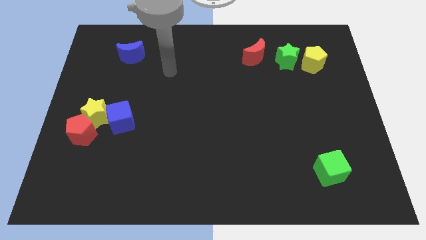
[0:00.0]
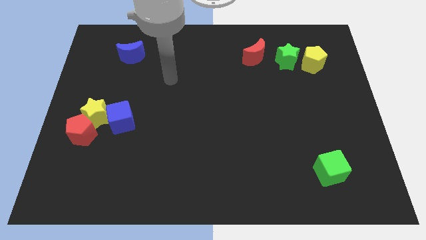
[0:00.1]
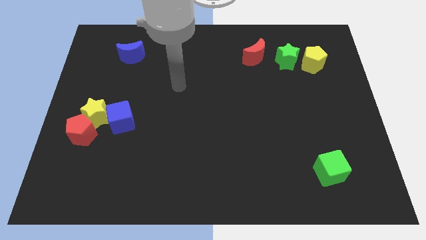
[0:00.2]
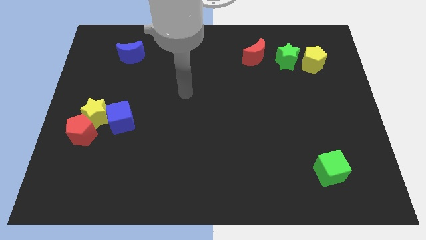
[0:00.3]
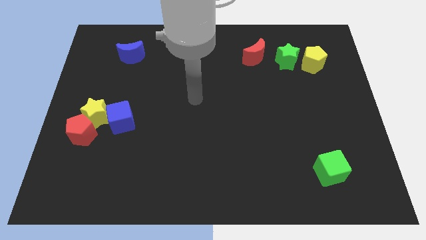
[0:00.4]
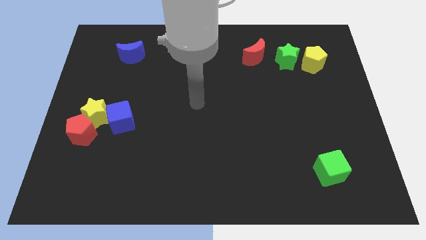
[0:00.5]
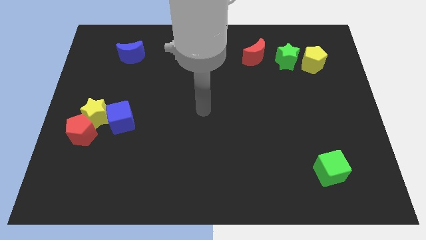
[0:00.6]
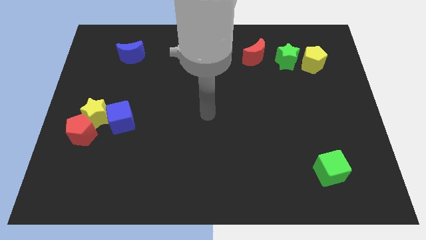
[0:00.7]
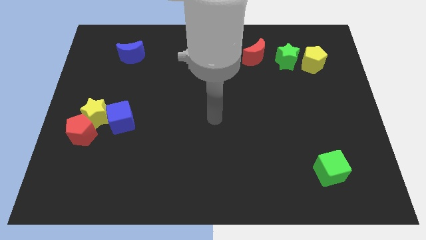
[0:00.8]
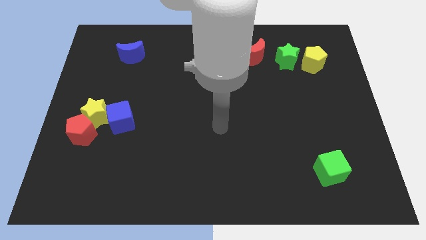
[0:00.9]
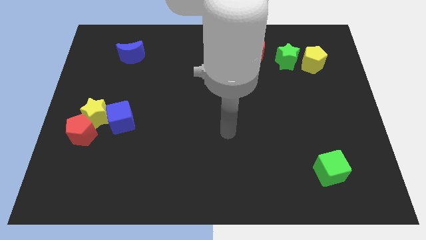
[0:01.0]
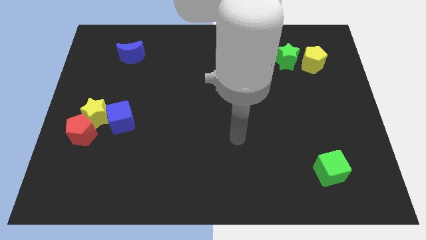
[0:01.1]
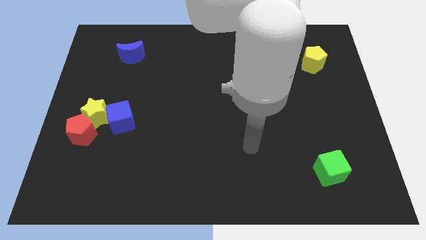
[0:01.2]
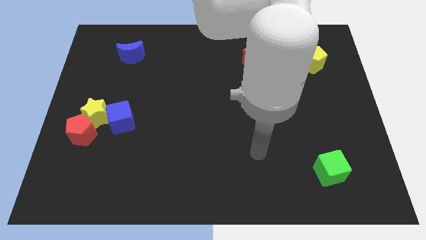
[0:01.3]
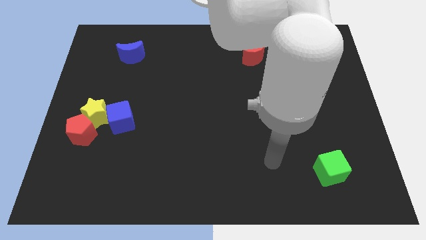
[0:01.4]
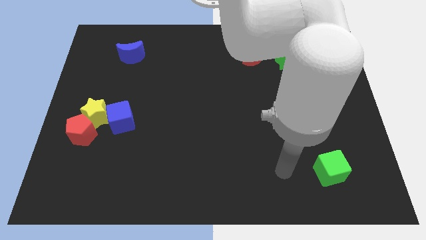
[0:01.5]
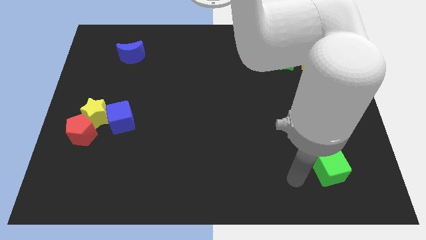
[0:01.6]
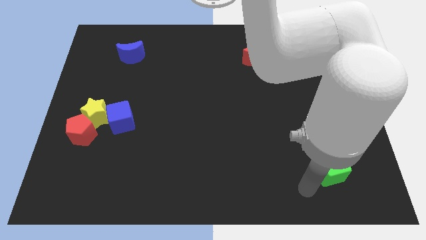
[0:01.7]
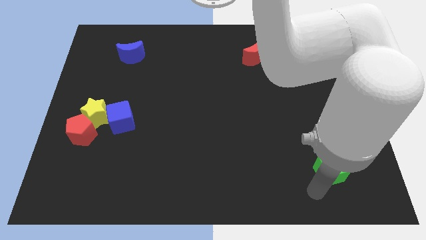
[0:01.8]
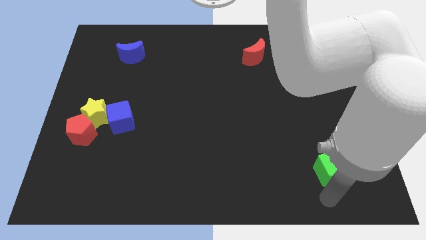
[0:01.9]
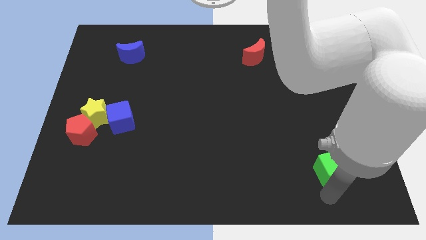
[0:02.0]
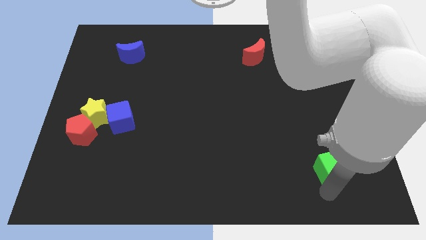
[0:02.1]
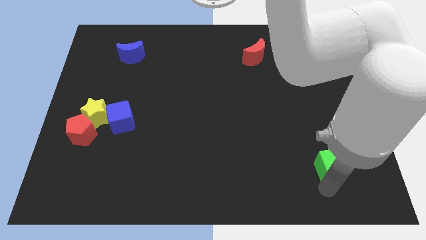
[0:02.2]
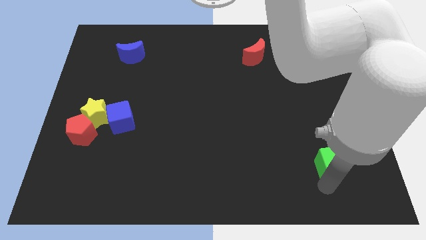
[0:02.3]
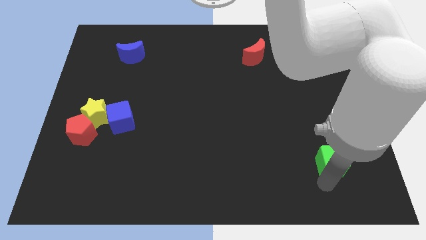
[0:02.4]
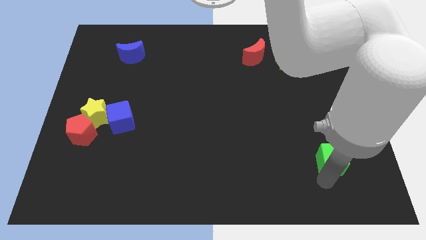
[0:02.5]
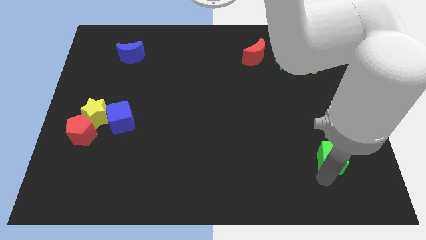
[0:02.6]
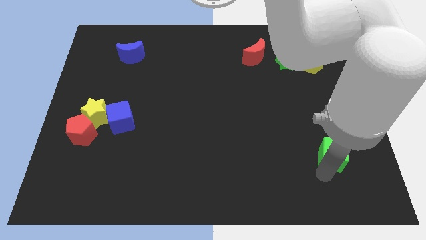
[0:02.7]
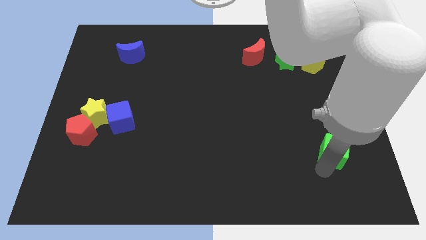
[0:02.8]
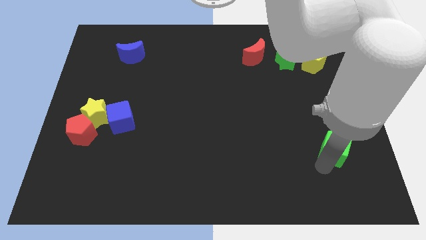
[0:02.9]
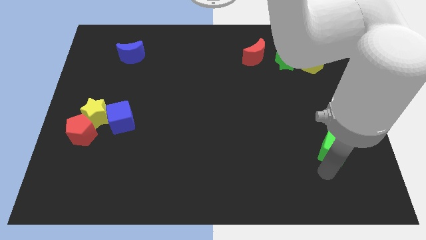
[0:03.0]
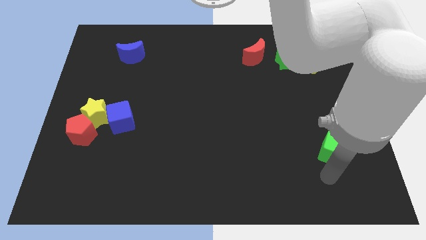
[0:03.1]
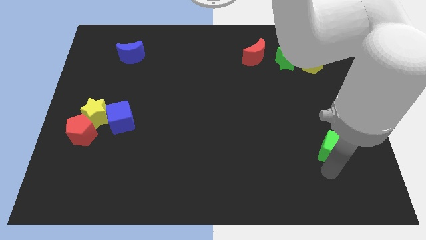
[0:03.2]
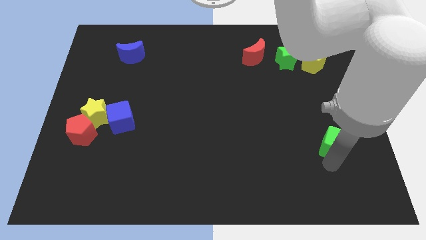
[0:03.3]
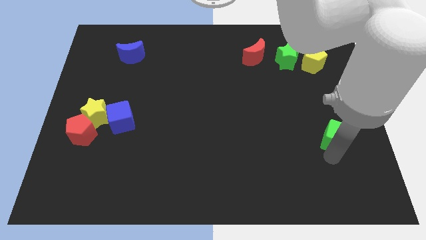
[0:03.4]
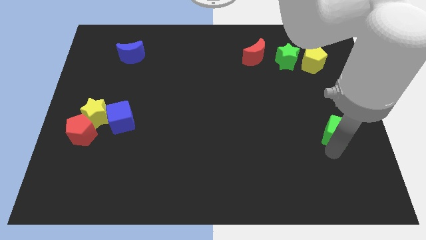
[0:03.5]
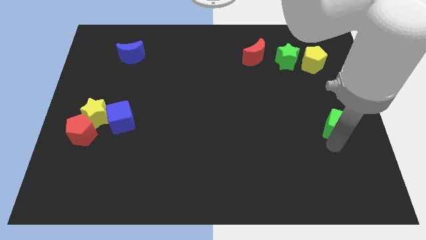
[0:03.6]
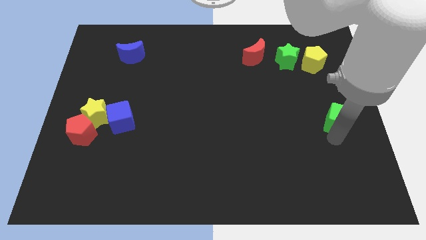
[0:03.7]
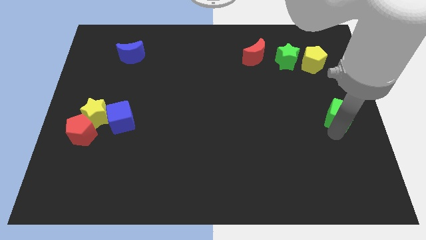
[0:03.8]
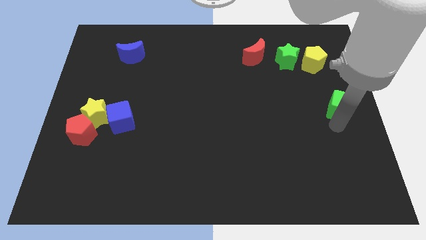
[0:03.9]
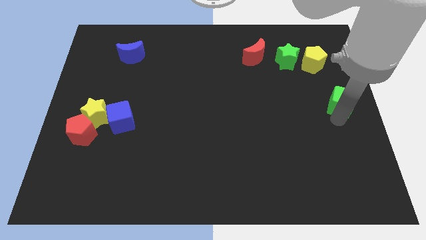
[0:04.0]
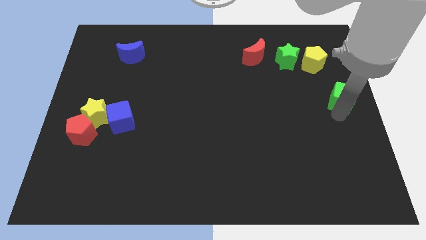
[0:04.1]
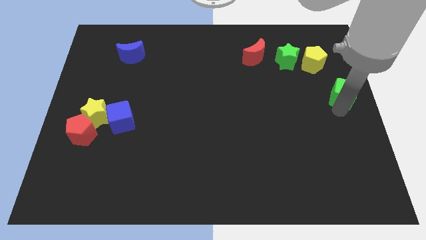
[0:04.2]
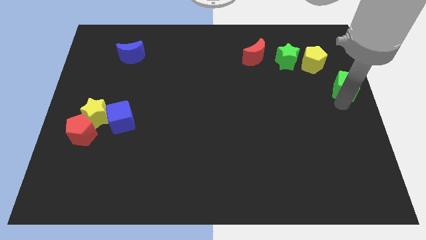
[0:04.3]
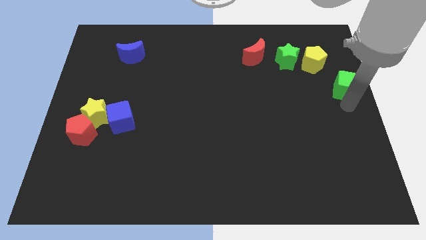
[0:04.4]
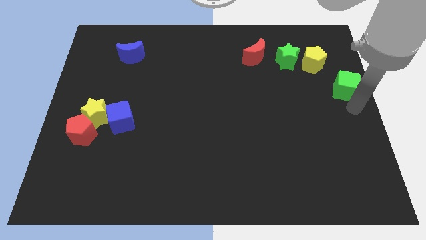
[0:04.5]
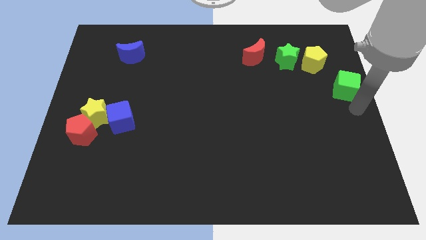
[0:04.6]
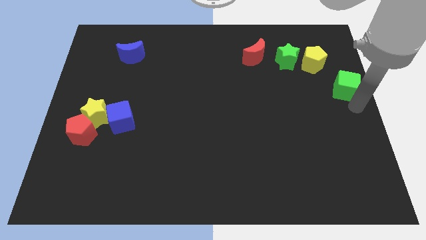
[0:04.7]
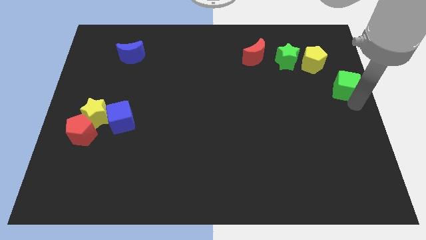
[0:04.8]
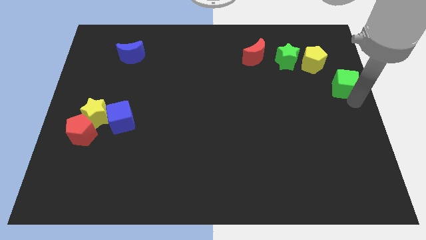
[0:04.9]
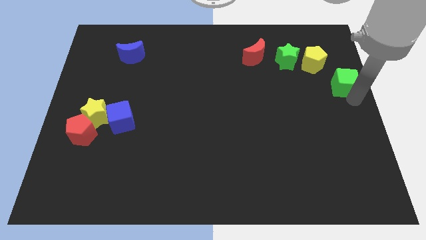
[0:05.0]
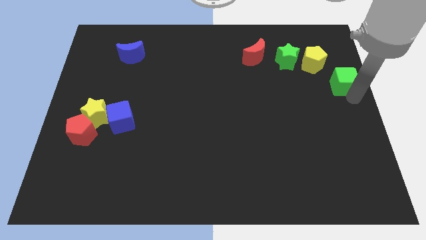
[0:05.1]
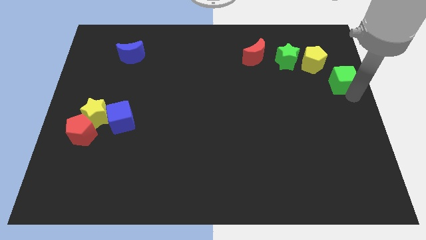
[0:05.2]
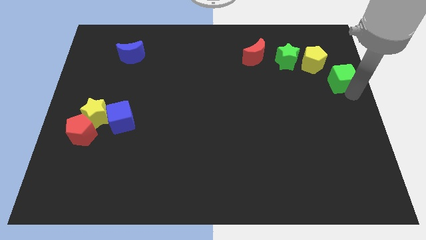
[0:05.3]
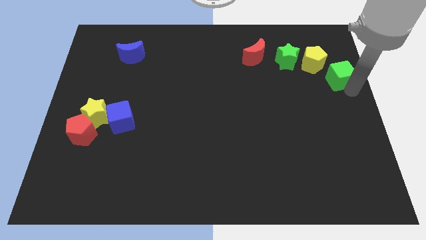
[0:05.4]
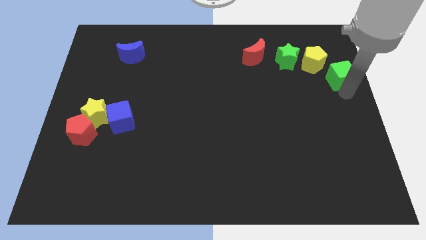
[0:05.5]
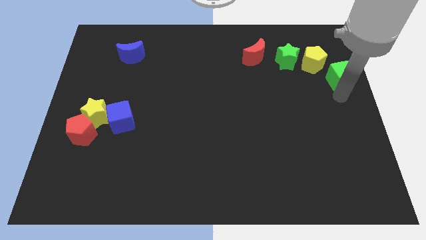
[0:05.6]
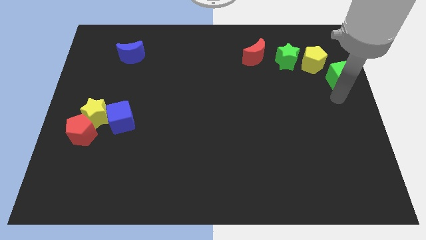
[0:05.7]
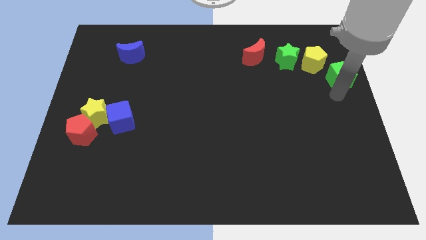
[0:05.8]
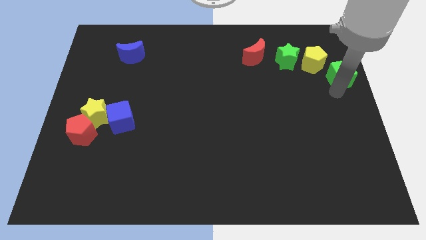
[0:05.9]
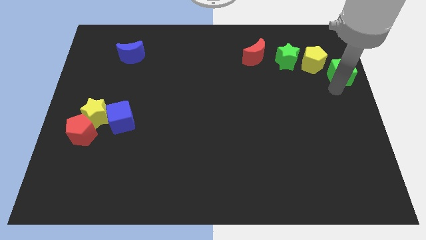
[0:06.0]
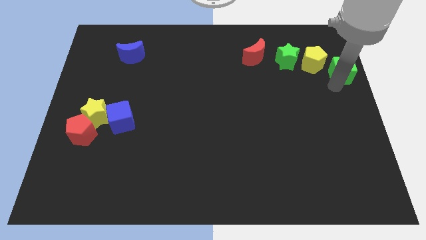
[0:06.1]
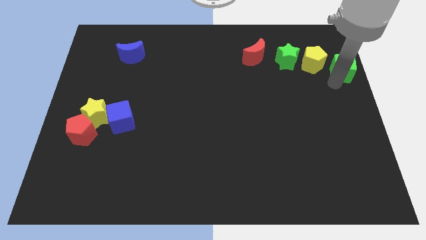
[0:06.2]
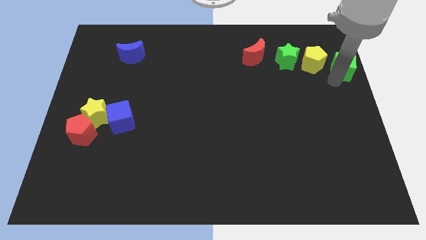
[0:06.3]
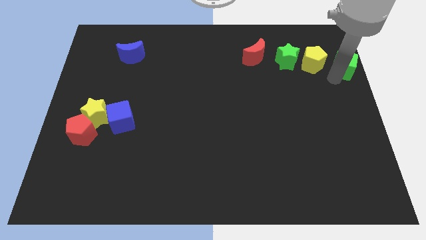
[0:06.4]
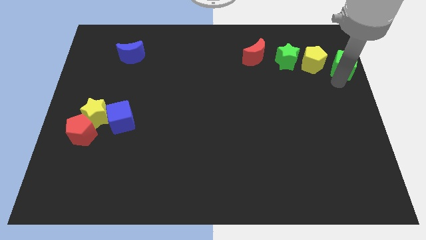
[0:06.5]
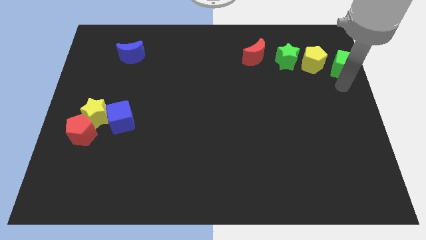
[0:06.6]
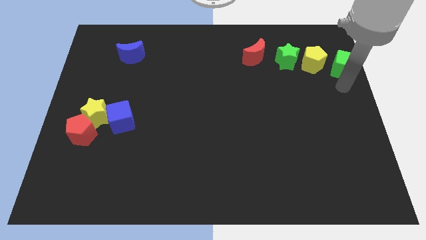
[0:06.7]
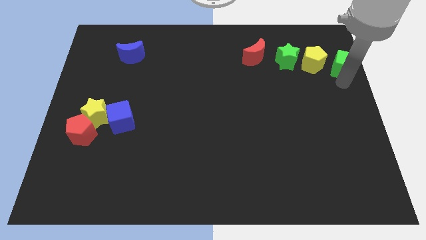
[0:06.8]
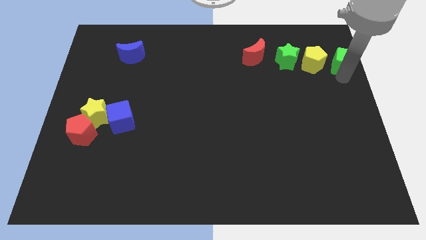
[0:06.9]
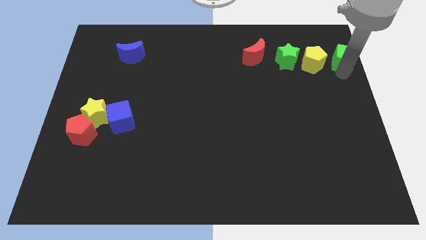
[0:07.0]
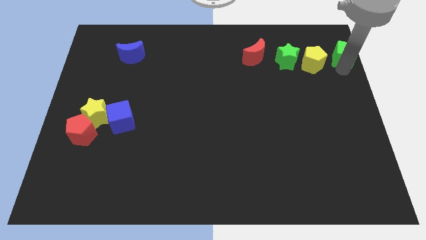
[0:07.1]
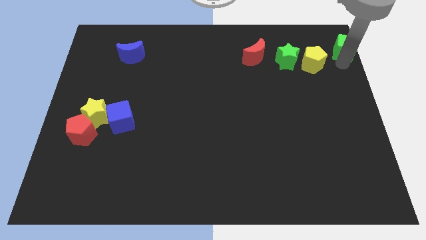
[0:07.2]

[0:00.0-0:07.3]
move the green cube to the upper right corner

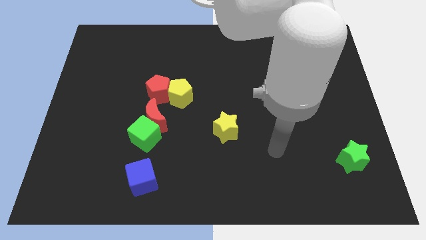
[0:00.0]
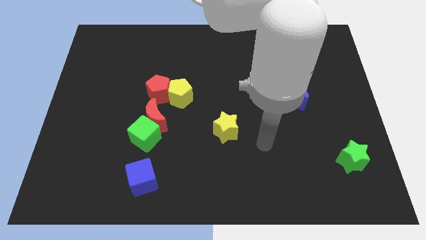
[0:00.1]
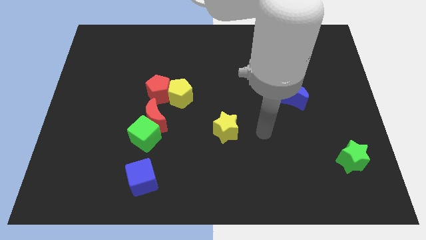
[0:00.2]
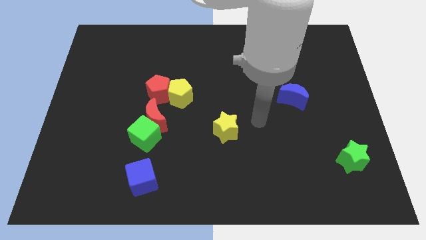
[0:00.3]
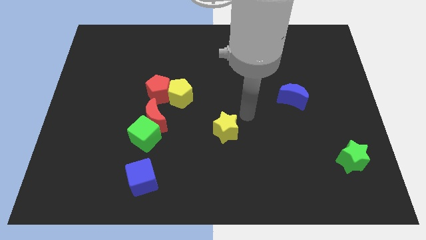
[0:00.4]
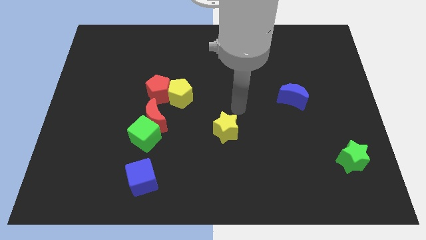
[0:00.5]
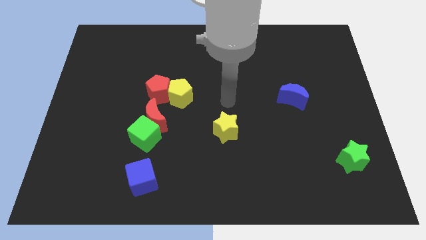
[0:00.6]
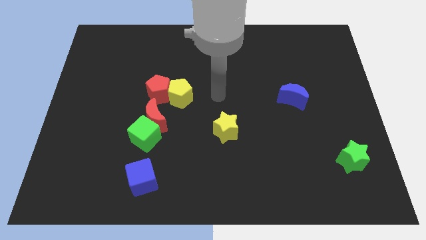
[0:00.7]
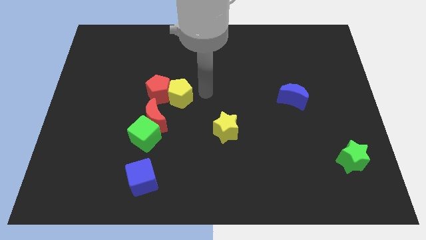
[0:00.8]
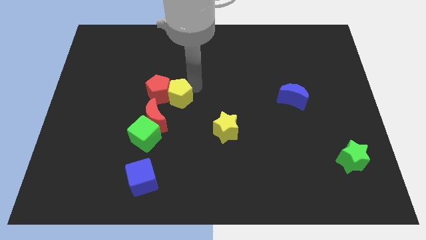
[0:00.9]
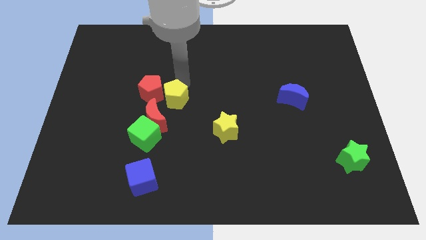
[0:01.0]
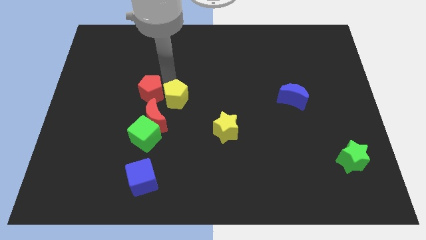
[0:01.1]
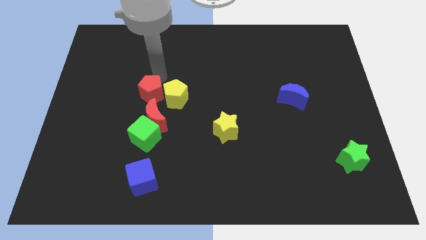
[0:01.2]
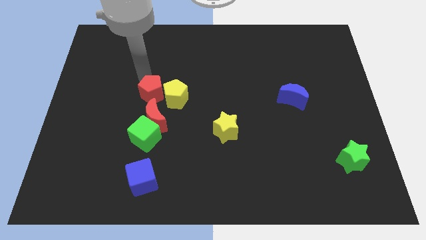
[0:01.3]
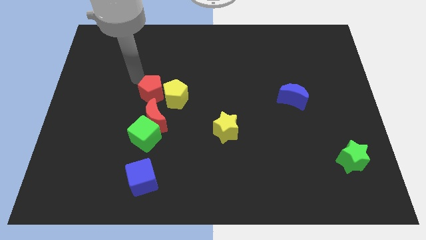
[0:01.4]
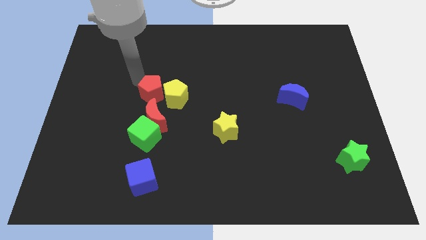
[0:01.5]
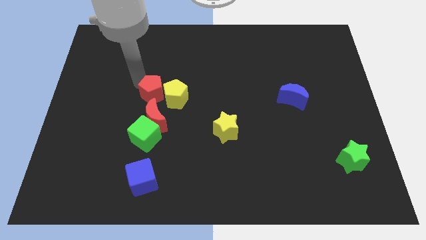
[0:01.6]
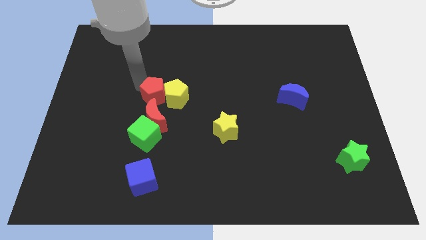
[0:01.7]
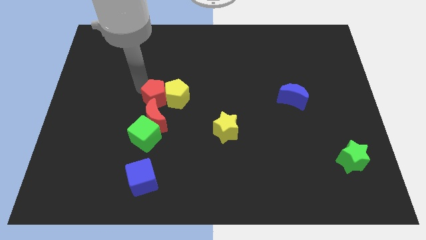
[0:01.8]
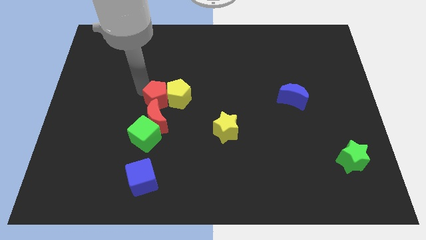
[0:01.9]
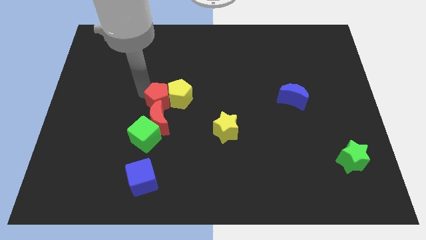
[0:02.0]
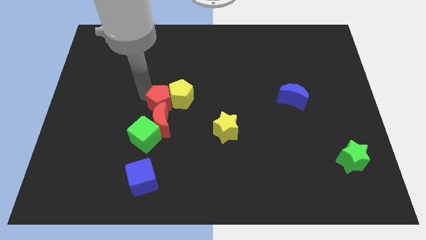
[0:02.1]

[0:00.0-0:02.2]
push the red pentagon to the center of the board
